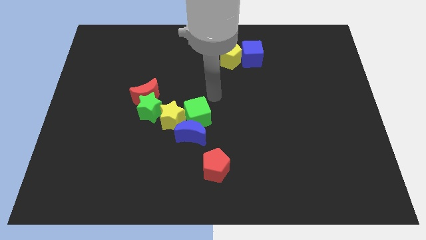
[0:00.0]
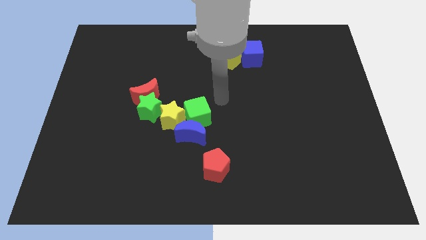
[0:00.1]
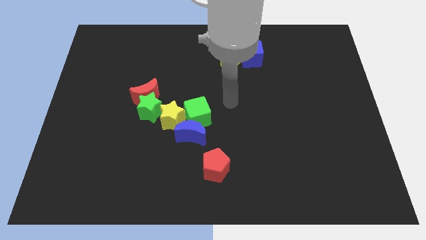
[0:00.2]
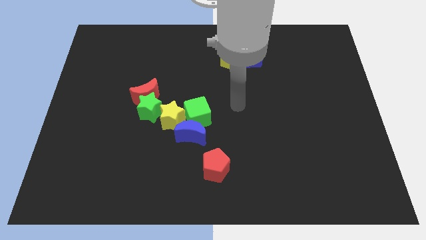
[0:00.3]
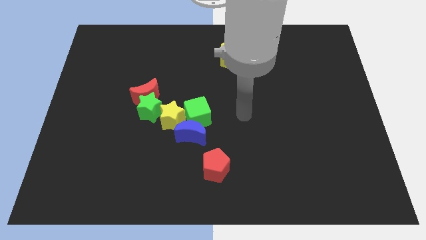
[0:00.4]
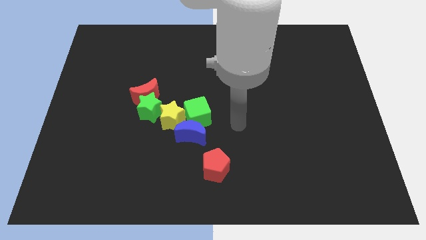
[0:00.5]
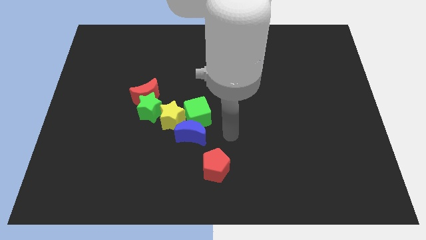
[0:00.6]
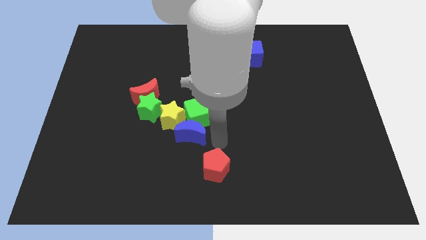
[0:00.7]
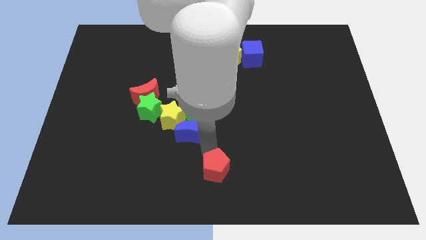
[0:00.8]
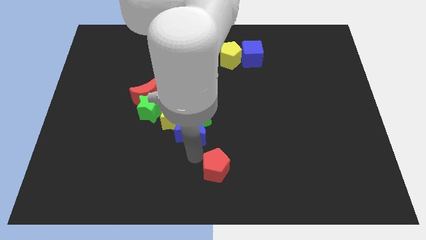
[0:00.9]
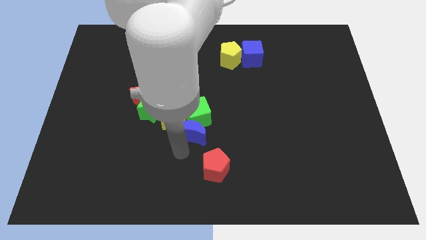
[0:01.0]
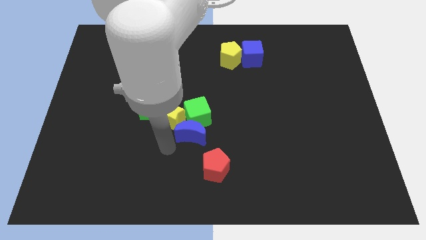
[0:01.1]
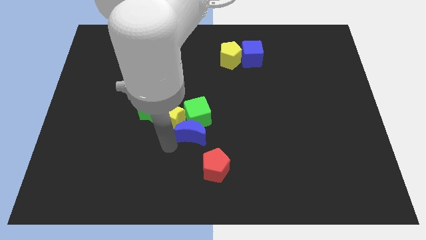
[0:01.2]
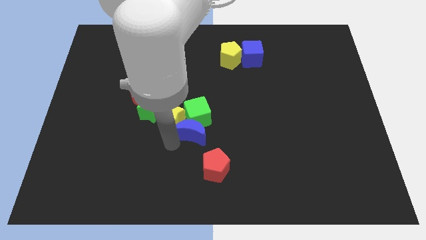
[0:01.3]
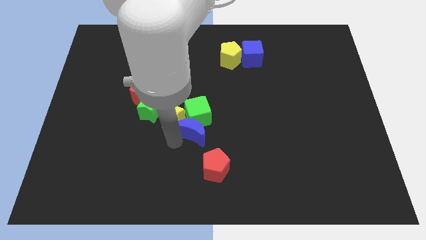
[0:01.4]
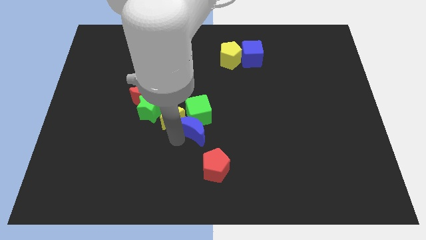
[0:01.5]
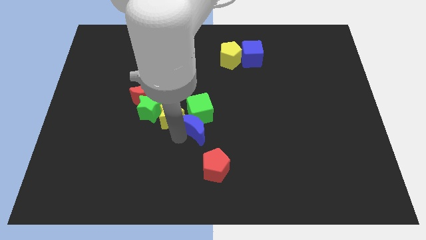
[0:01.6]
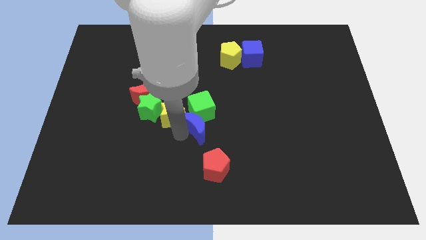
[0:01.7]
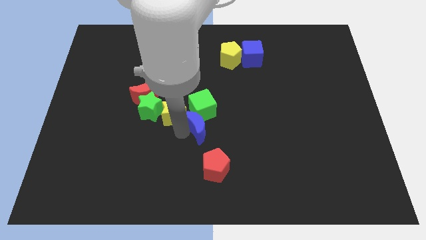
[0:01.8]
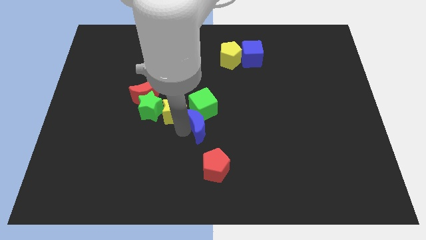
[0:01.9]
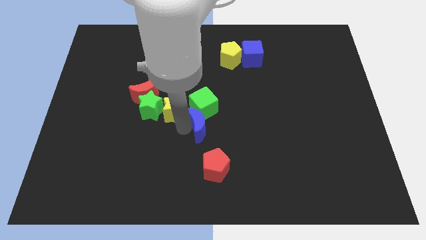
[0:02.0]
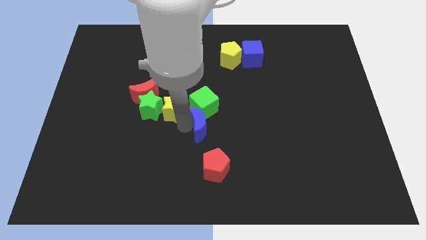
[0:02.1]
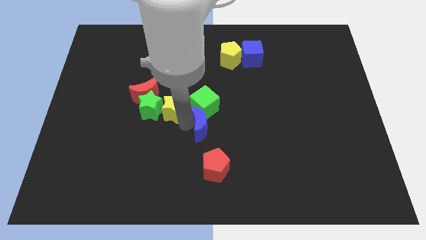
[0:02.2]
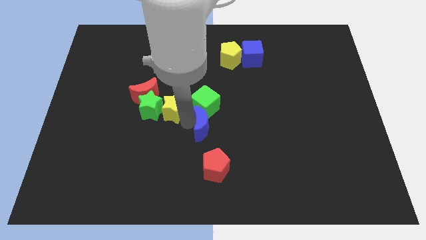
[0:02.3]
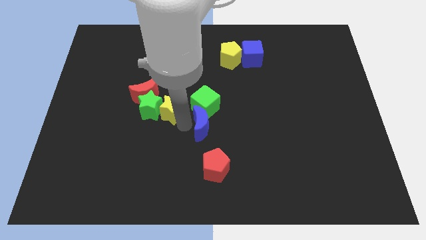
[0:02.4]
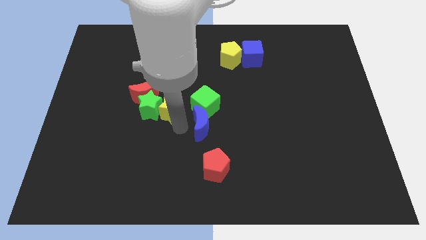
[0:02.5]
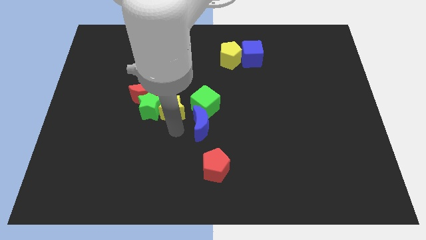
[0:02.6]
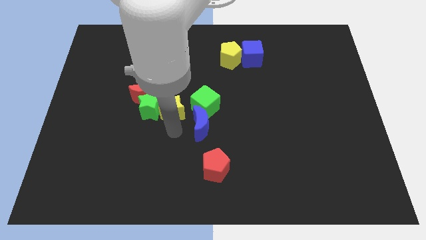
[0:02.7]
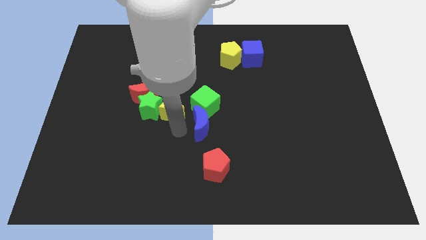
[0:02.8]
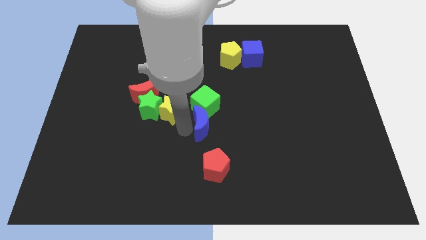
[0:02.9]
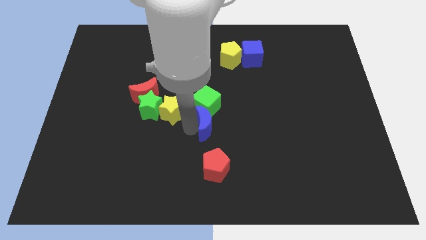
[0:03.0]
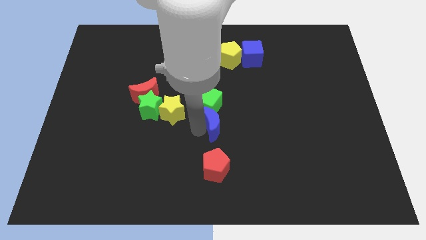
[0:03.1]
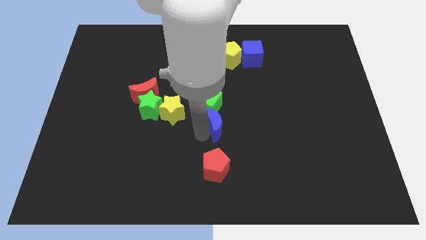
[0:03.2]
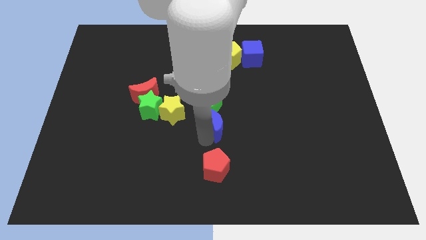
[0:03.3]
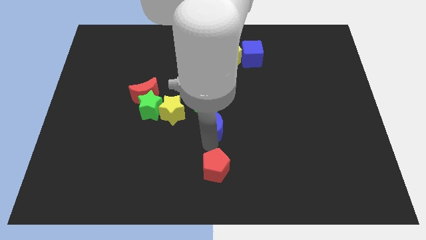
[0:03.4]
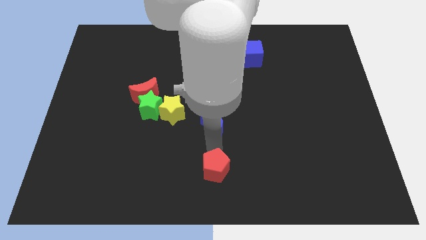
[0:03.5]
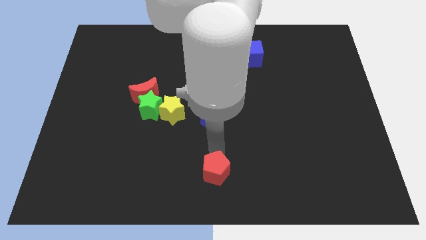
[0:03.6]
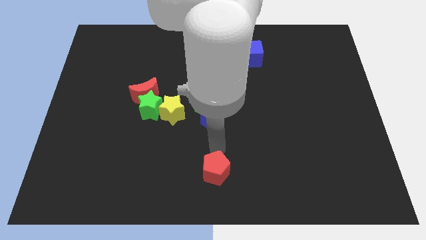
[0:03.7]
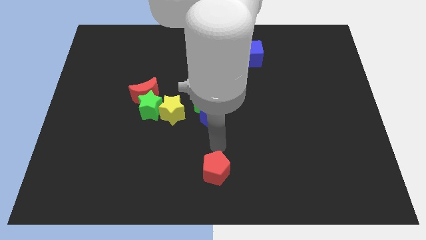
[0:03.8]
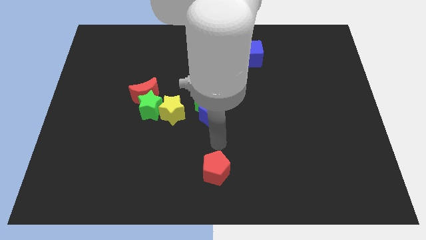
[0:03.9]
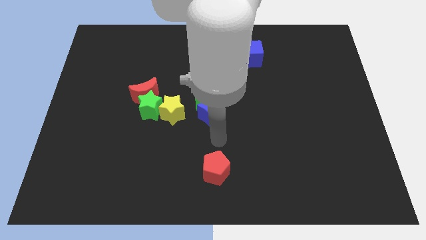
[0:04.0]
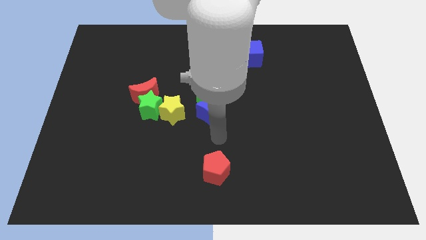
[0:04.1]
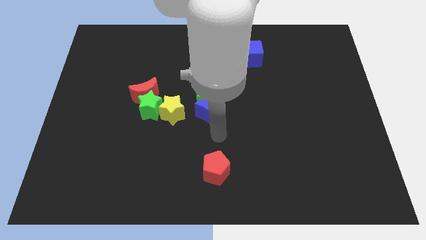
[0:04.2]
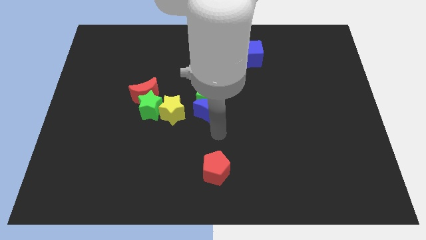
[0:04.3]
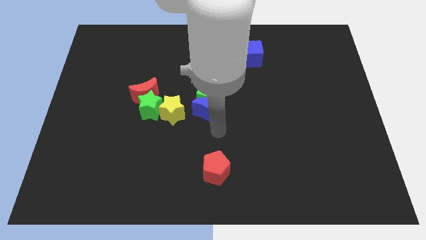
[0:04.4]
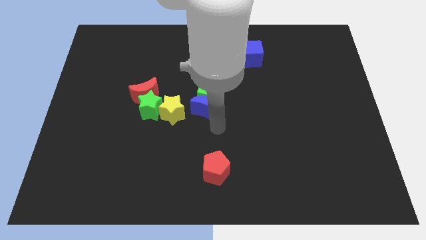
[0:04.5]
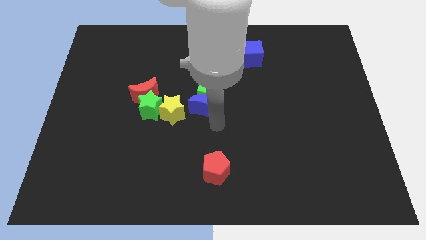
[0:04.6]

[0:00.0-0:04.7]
slide the blue moon slightly up

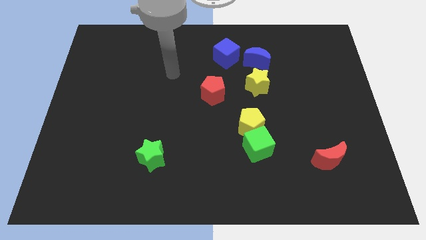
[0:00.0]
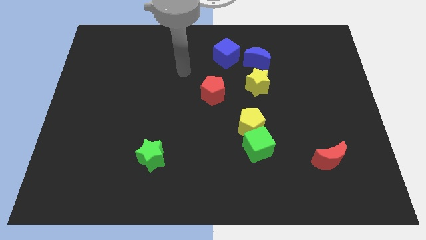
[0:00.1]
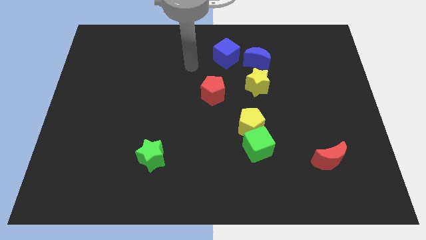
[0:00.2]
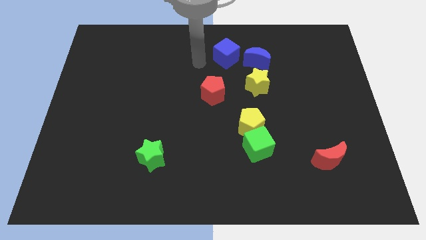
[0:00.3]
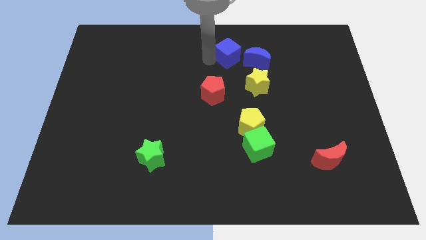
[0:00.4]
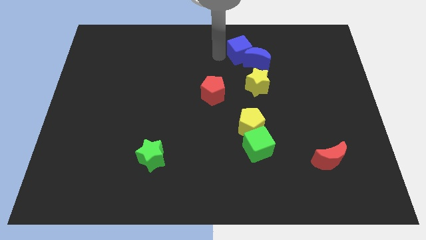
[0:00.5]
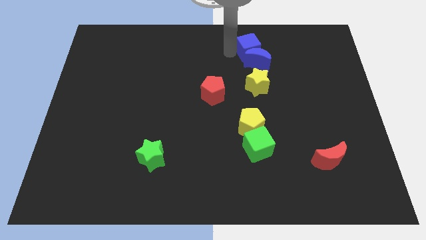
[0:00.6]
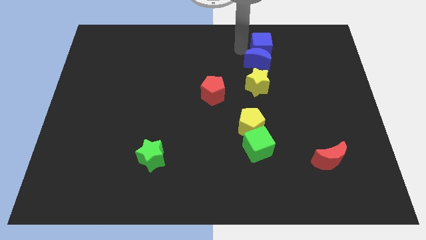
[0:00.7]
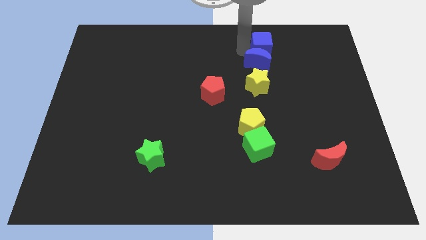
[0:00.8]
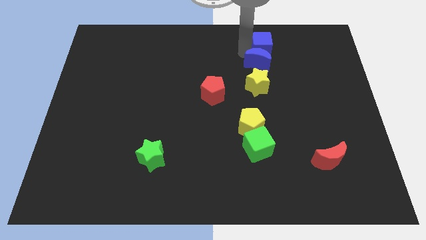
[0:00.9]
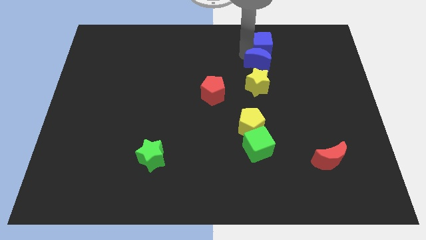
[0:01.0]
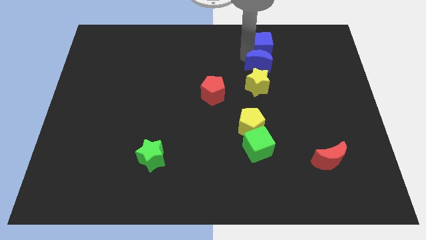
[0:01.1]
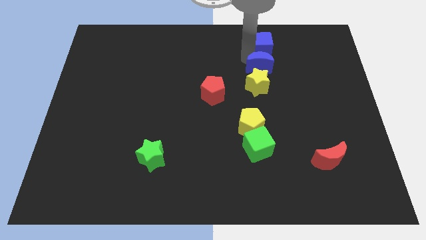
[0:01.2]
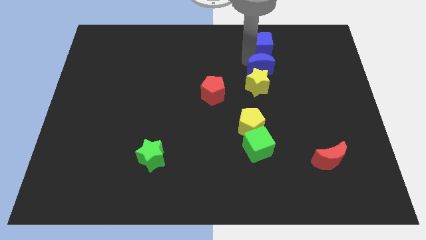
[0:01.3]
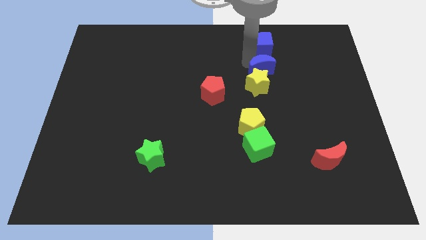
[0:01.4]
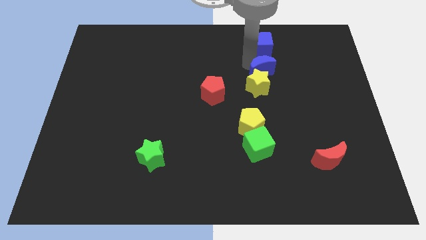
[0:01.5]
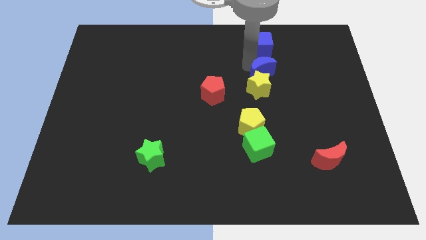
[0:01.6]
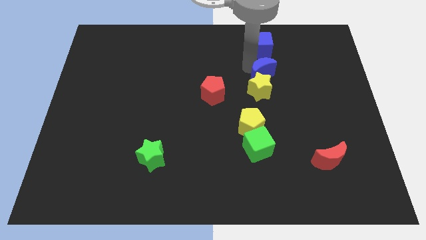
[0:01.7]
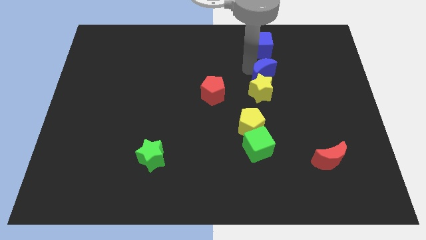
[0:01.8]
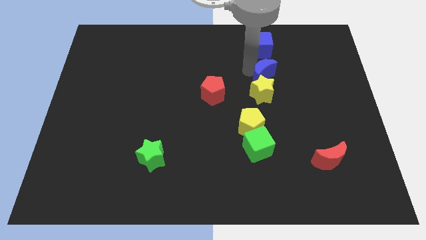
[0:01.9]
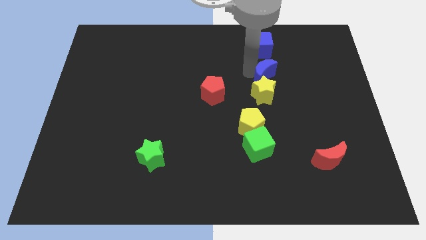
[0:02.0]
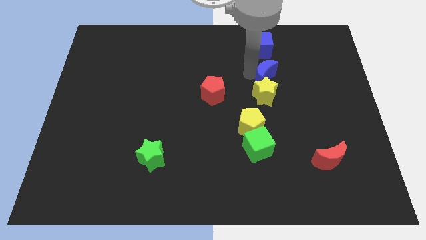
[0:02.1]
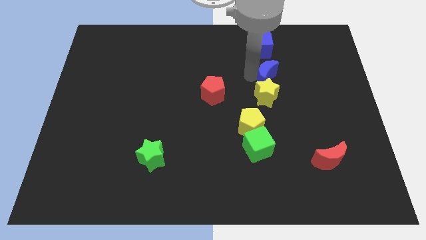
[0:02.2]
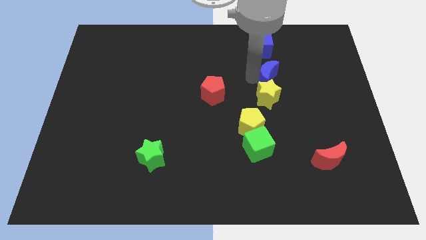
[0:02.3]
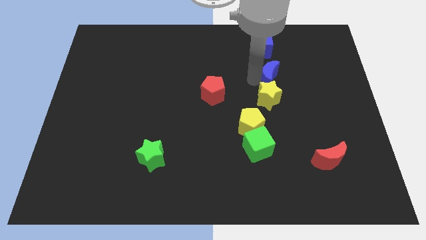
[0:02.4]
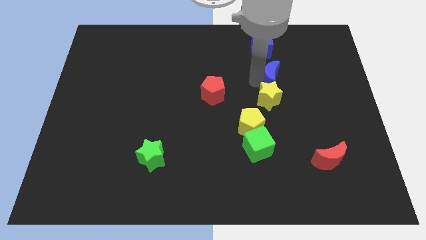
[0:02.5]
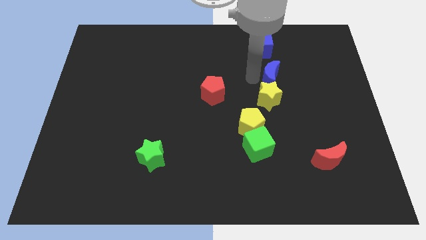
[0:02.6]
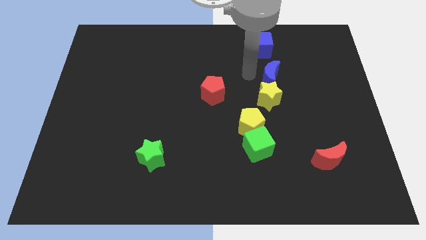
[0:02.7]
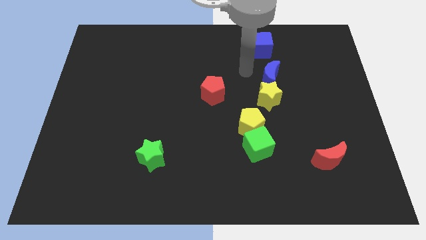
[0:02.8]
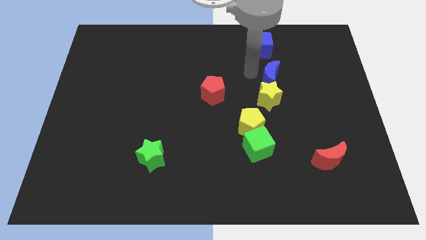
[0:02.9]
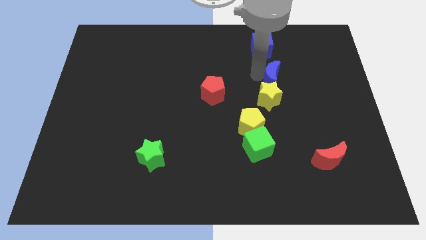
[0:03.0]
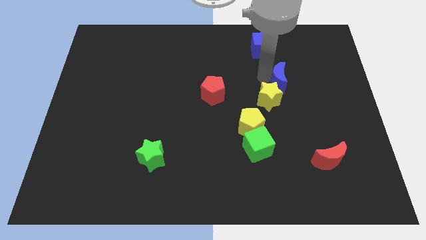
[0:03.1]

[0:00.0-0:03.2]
move the blue moon slightly down and to the right

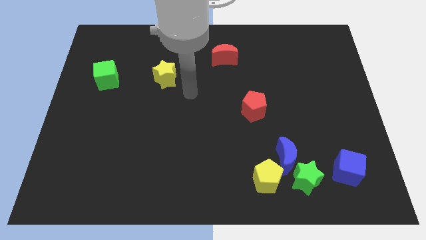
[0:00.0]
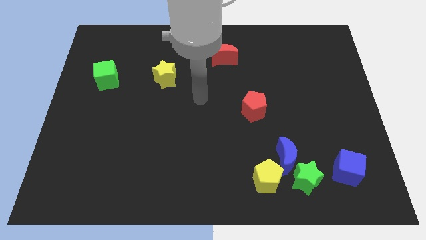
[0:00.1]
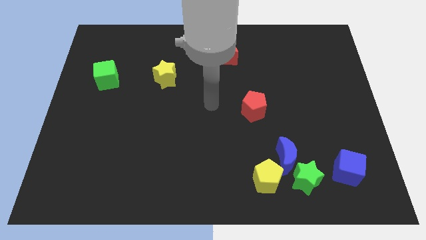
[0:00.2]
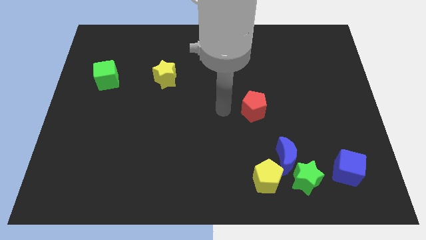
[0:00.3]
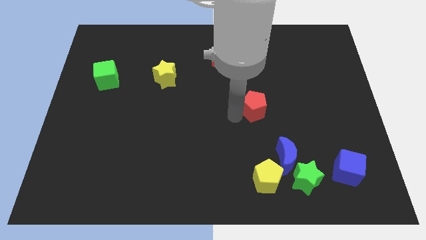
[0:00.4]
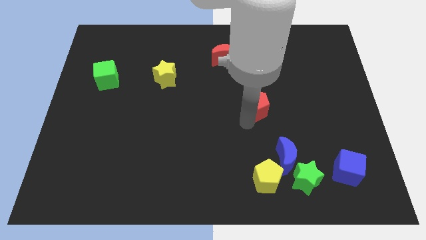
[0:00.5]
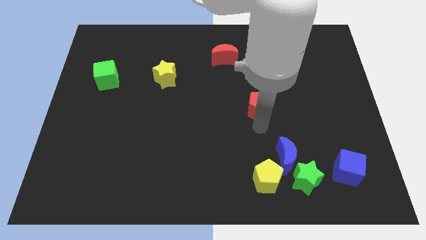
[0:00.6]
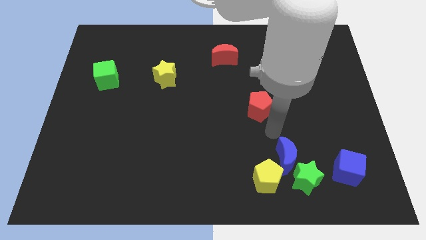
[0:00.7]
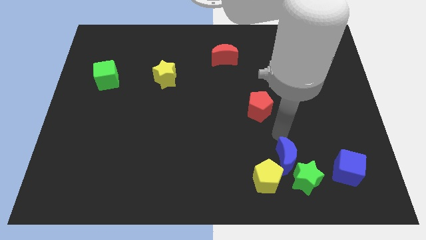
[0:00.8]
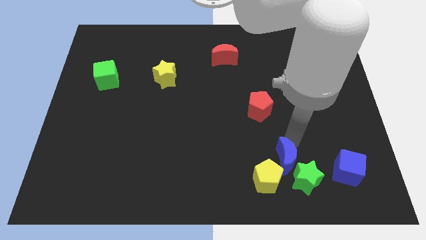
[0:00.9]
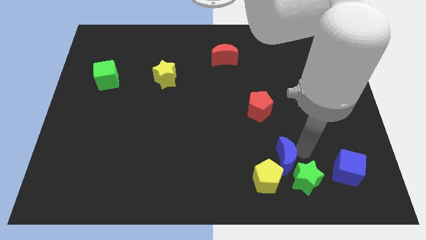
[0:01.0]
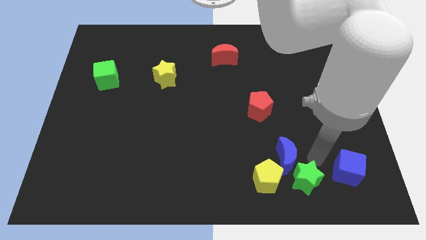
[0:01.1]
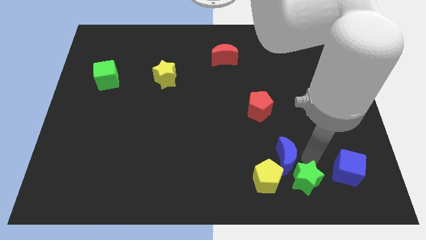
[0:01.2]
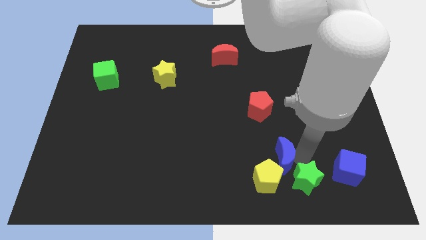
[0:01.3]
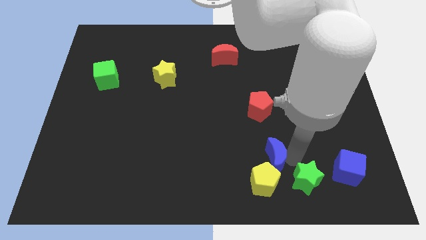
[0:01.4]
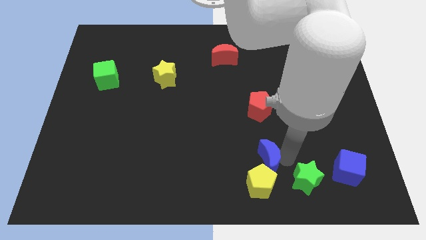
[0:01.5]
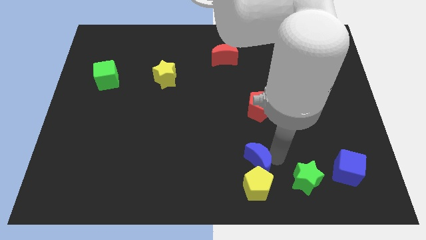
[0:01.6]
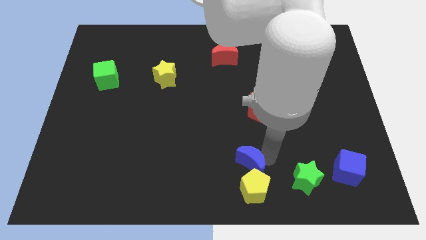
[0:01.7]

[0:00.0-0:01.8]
slightly slide the blue moon to the left
